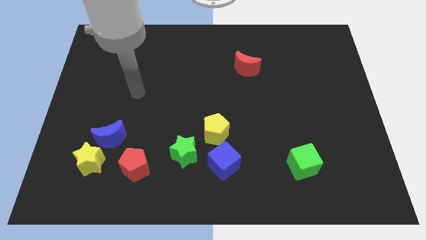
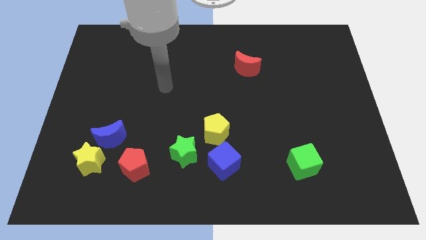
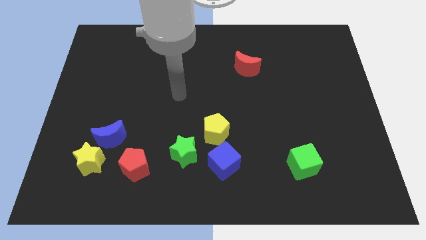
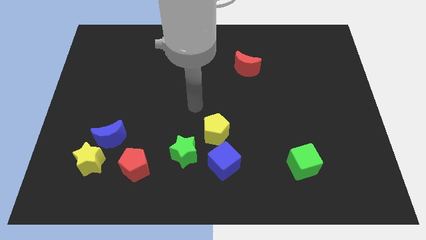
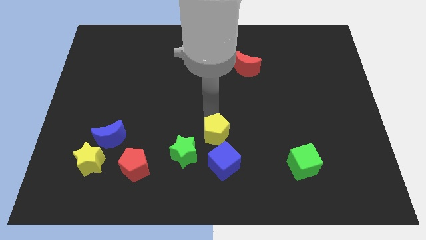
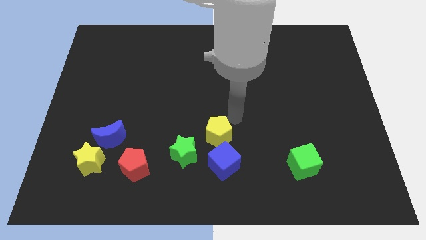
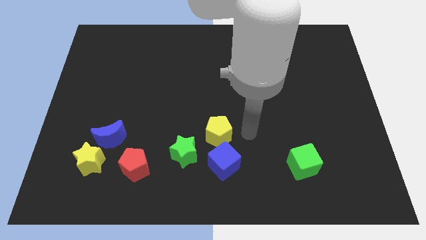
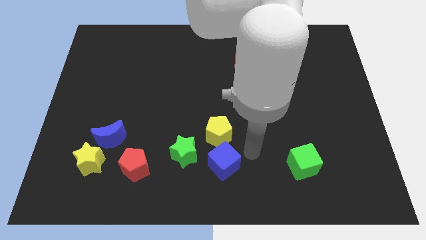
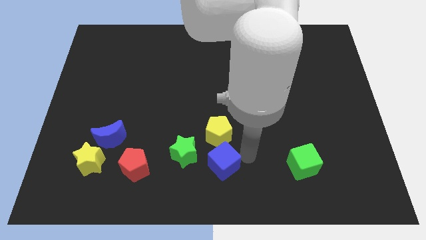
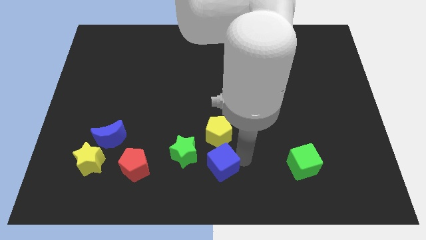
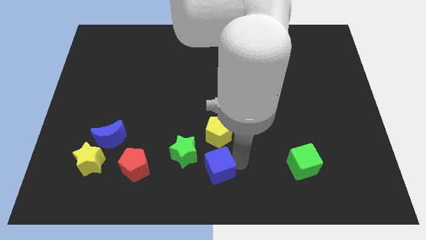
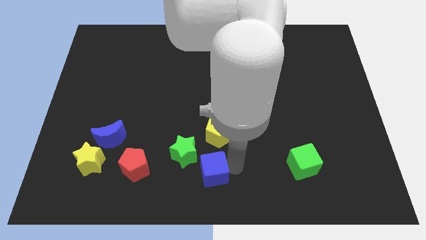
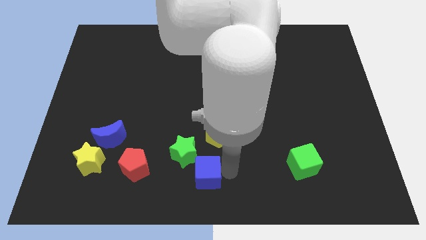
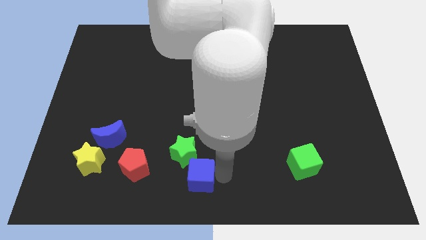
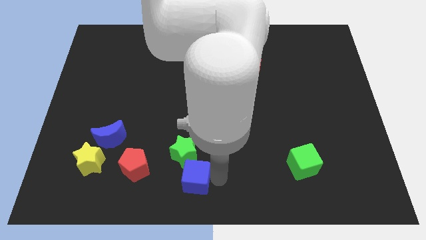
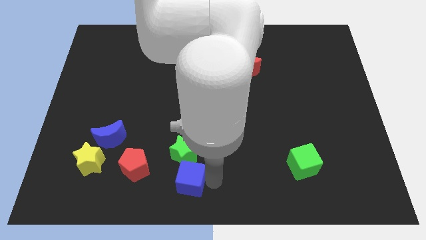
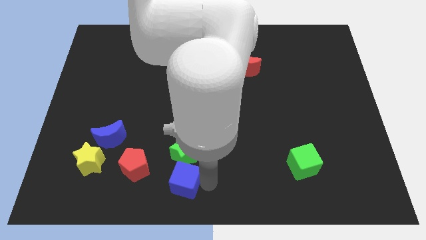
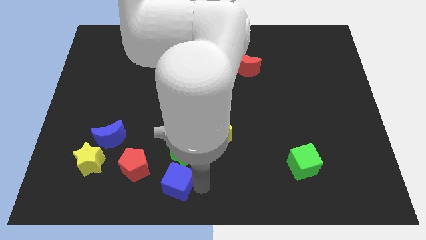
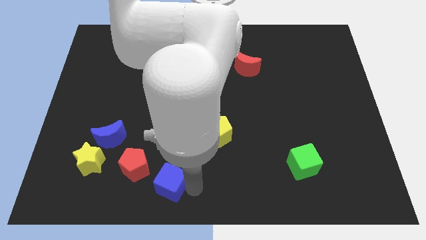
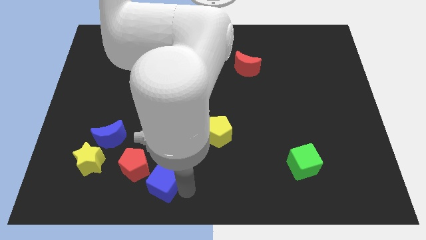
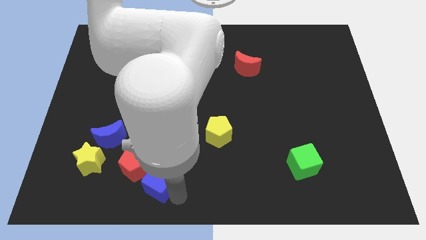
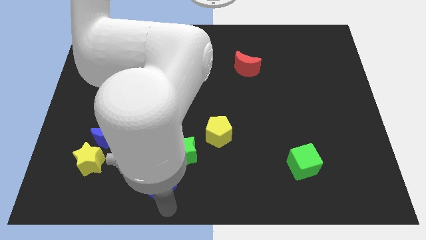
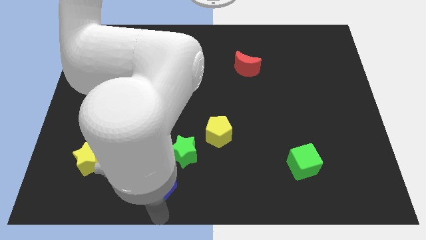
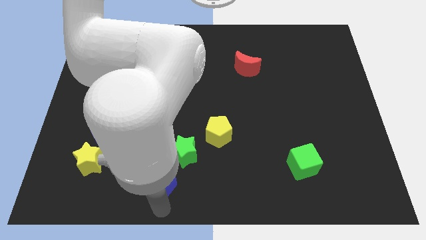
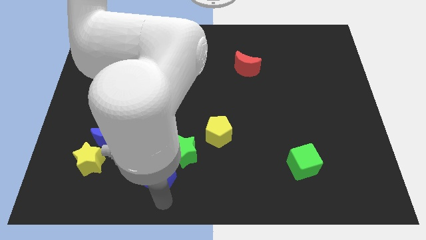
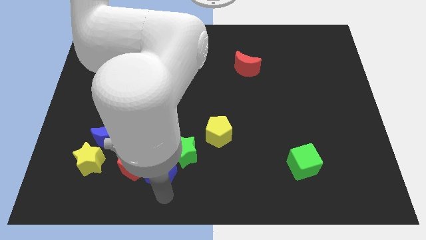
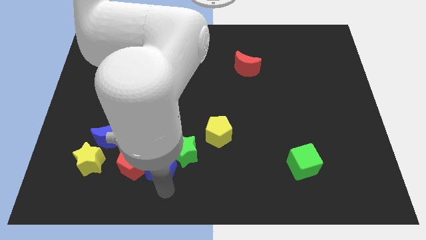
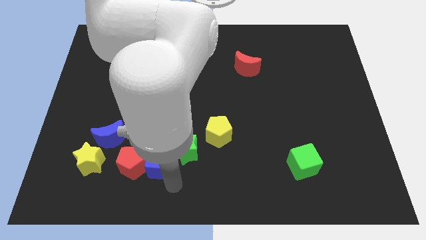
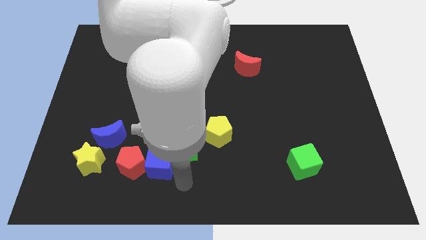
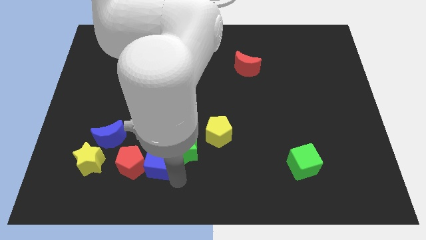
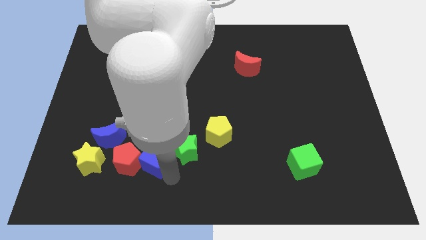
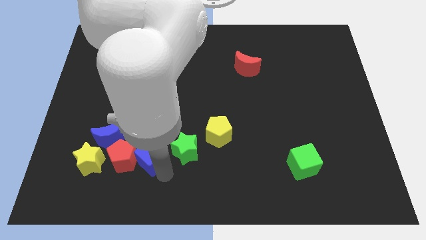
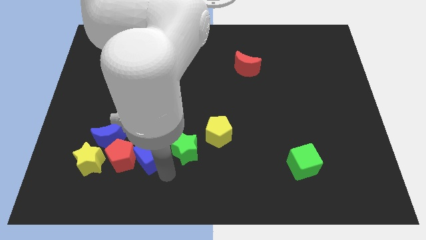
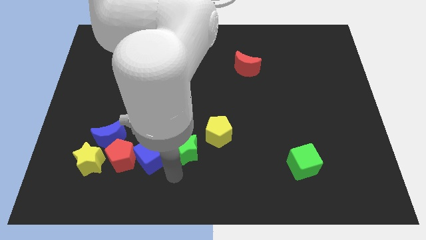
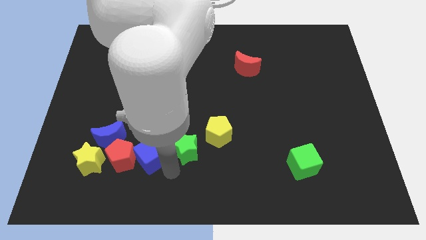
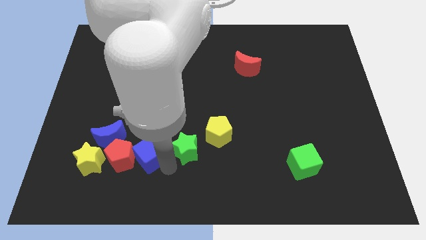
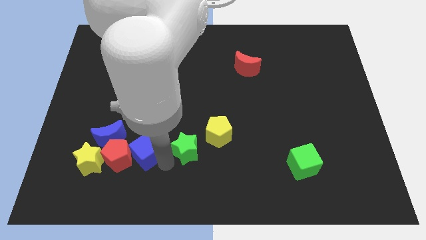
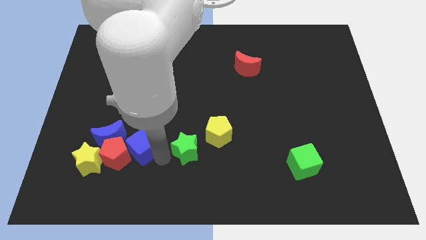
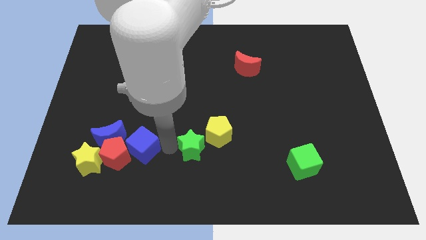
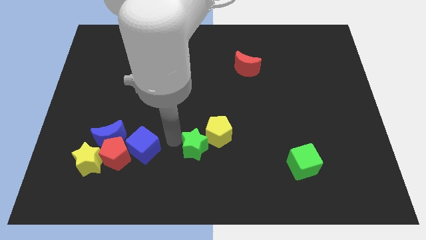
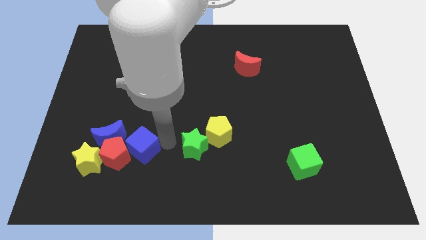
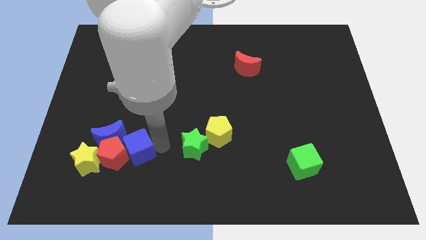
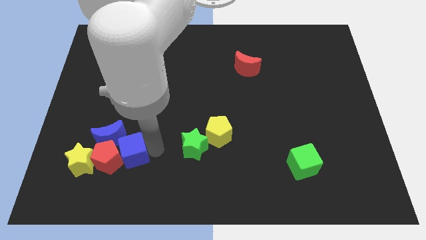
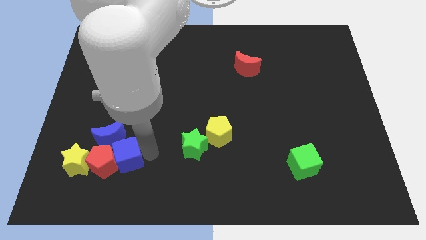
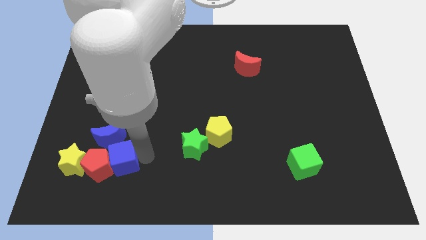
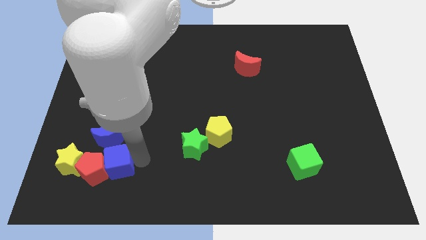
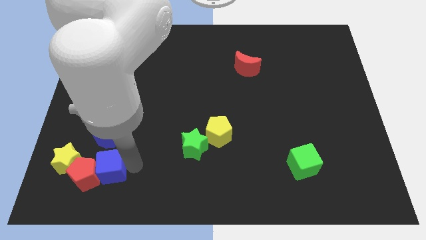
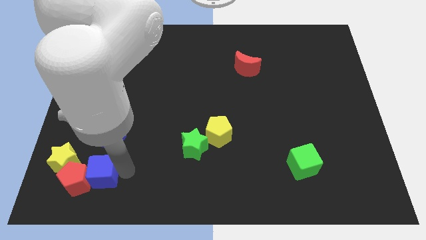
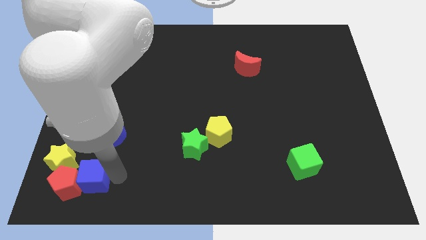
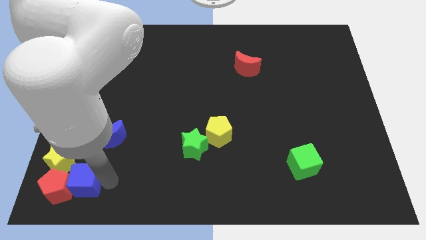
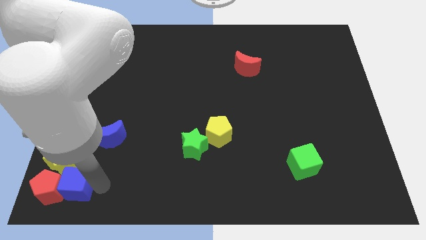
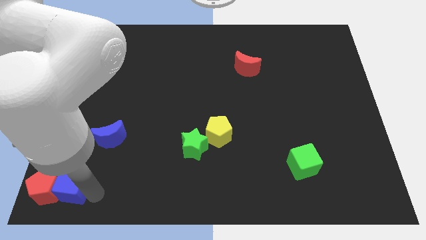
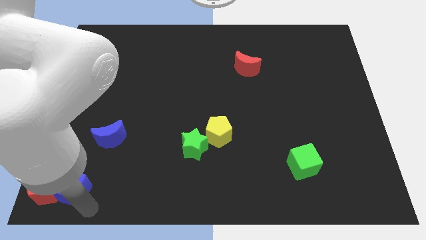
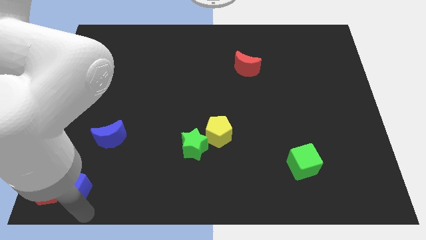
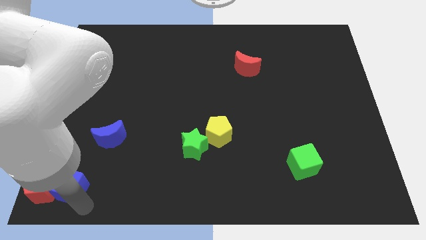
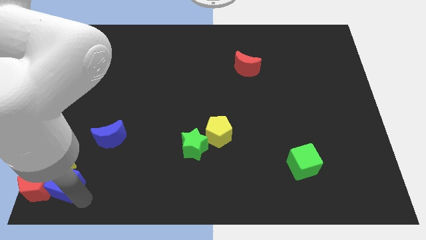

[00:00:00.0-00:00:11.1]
move the blue cube close to the yellow star

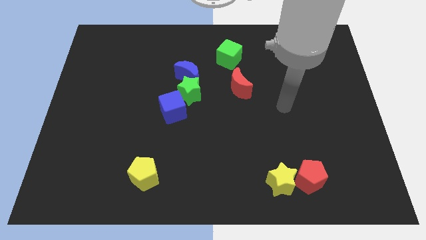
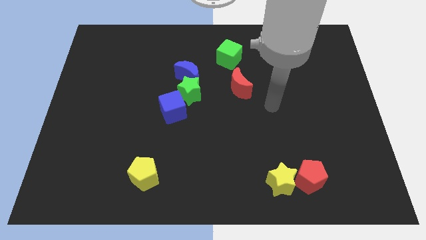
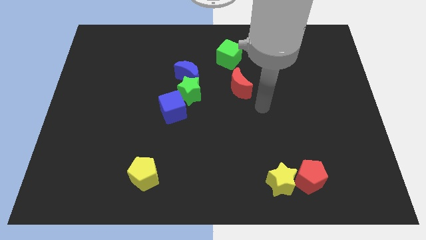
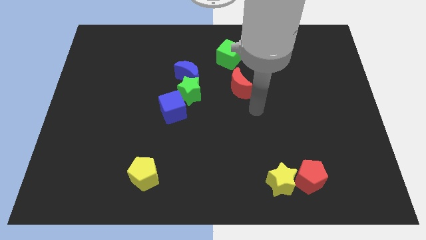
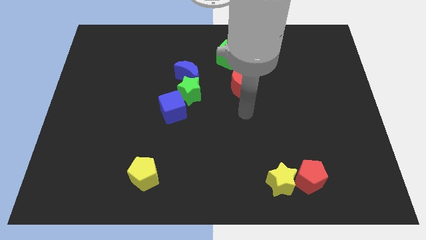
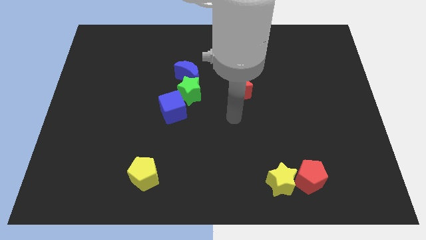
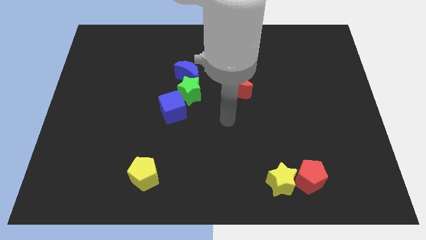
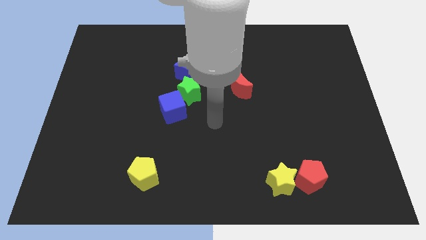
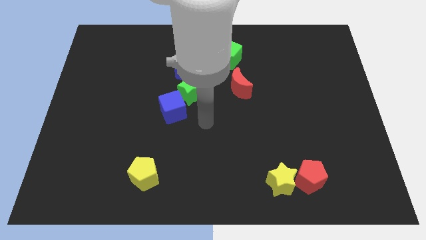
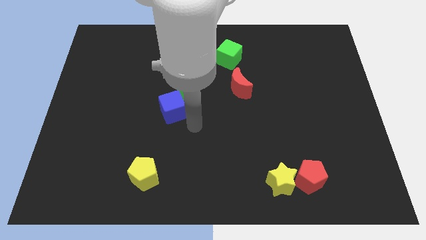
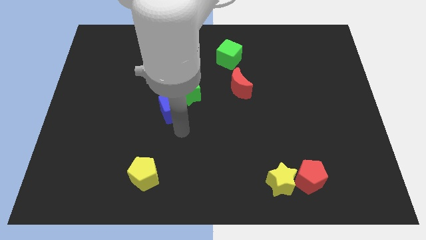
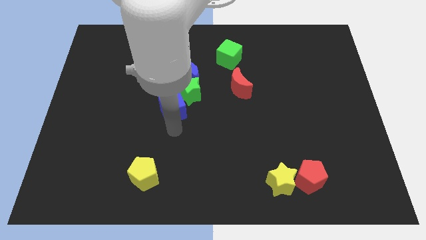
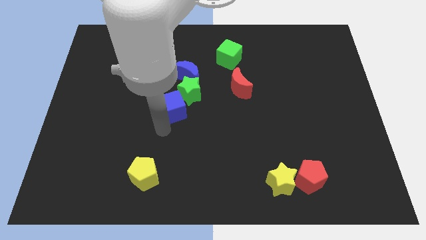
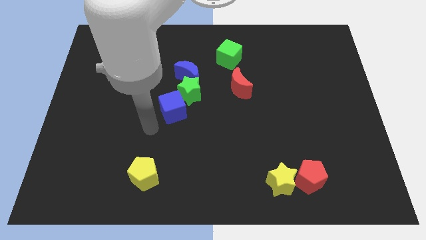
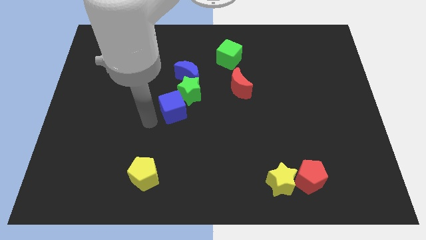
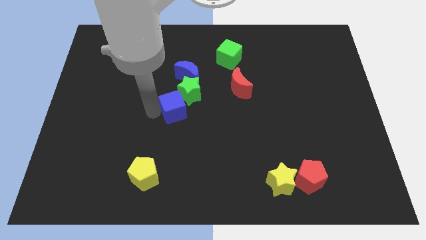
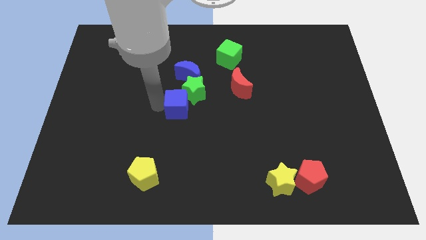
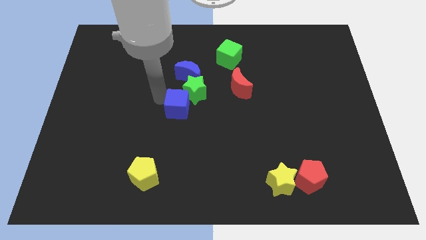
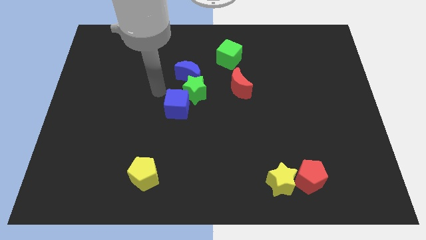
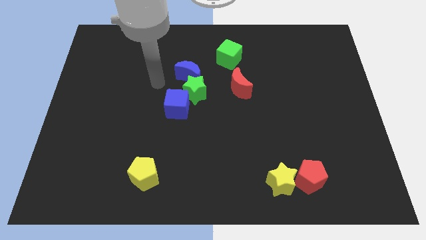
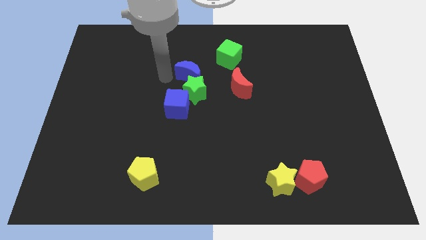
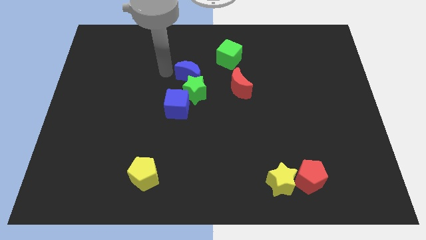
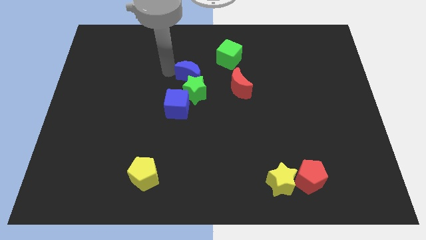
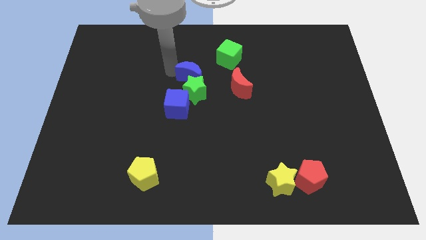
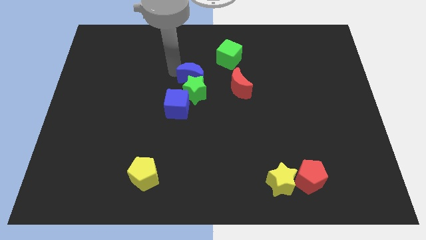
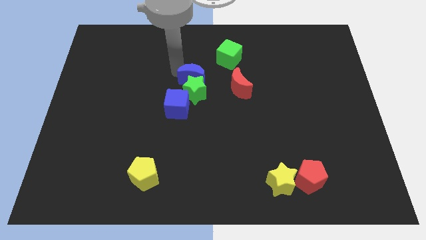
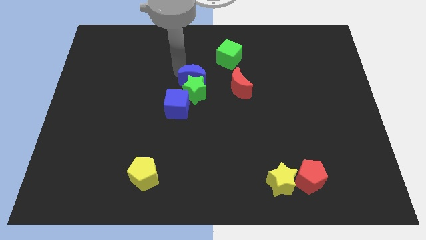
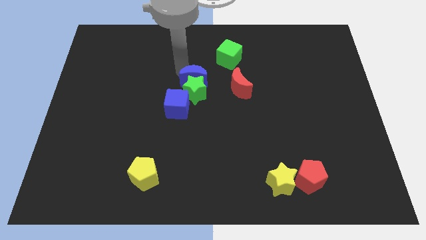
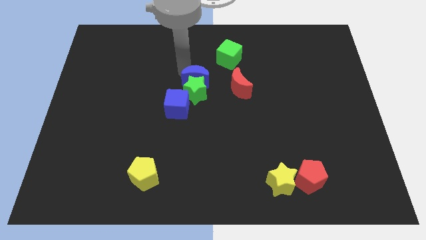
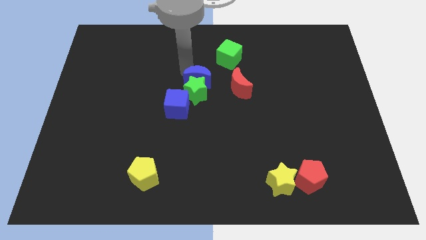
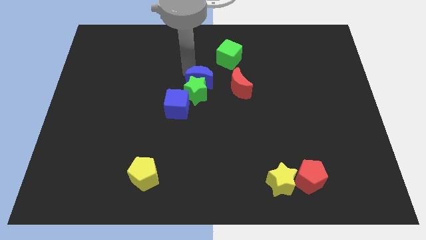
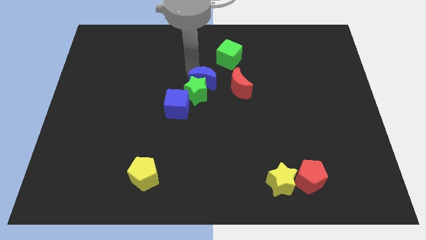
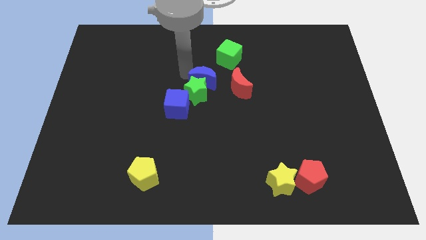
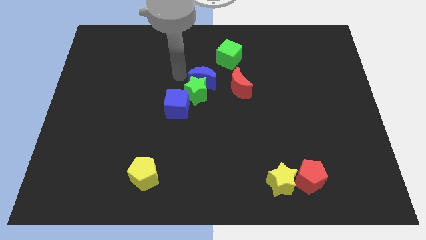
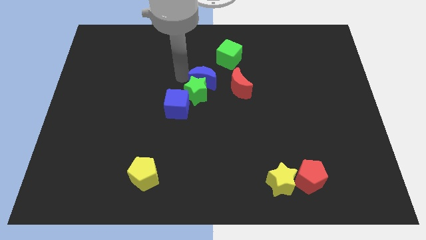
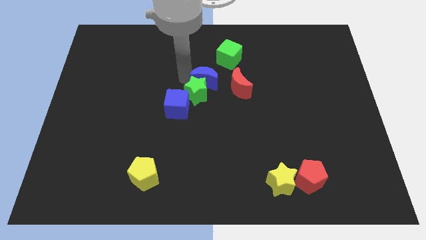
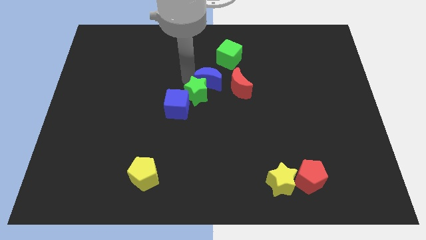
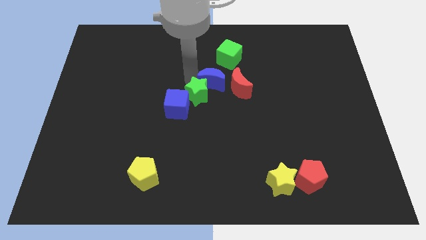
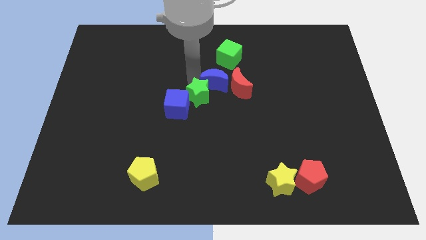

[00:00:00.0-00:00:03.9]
push the blue moon to the red moon
